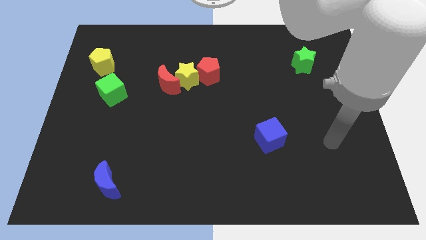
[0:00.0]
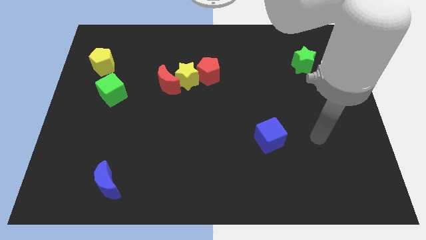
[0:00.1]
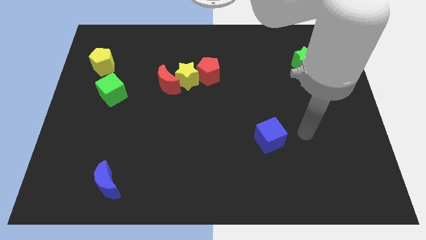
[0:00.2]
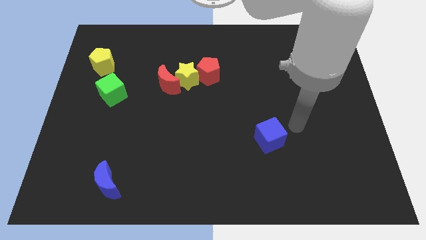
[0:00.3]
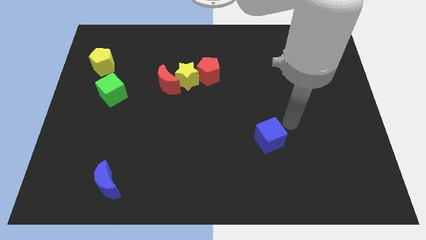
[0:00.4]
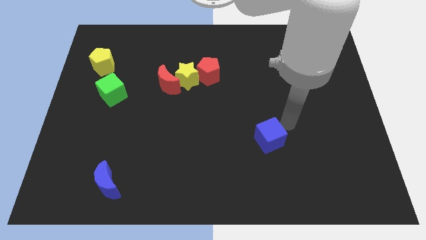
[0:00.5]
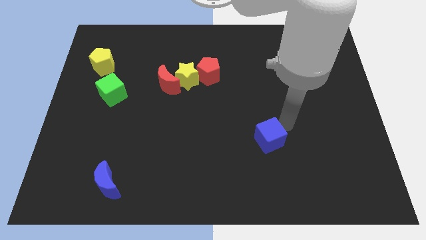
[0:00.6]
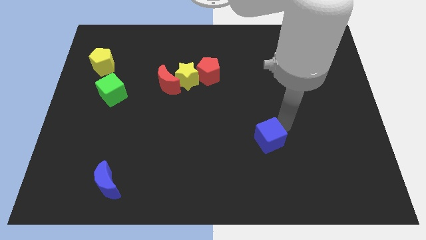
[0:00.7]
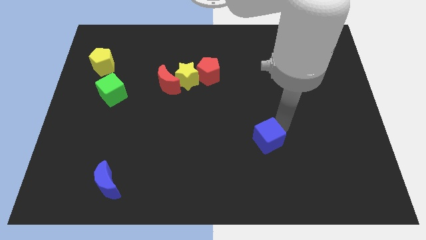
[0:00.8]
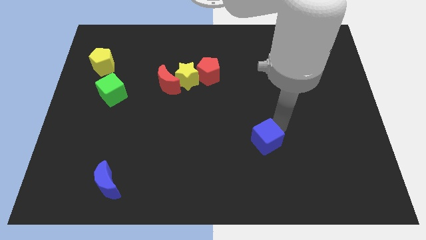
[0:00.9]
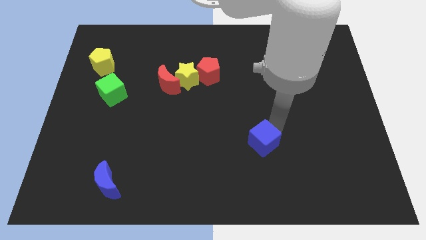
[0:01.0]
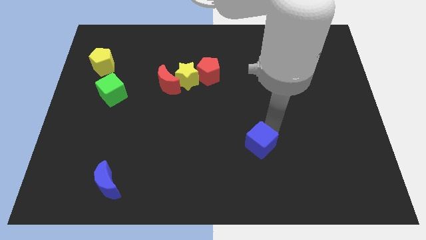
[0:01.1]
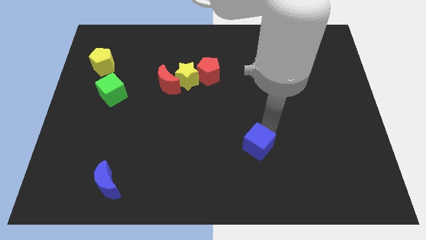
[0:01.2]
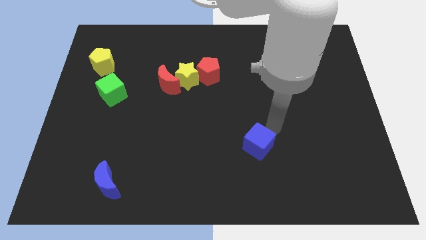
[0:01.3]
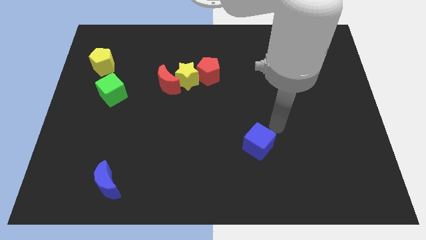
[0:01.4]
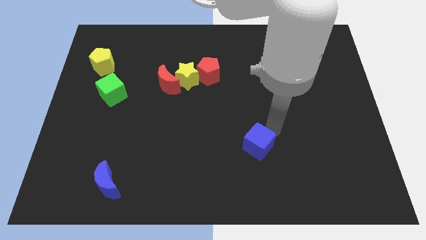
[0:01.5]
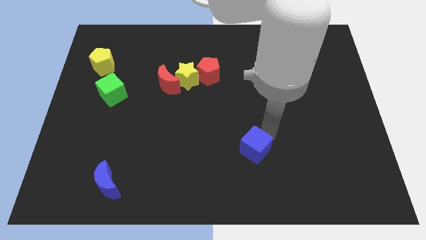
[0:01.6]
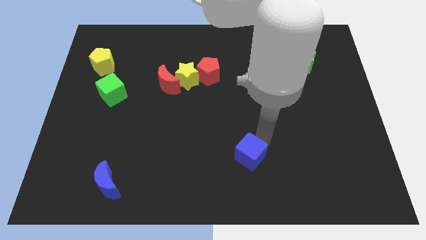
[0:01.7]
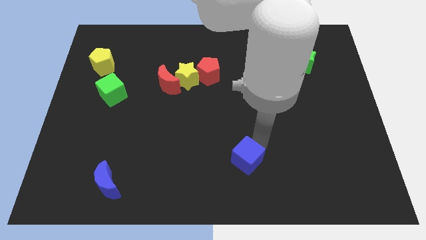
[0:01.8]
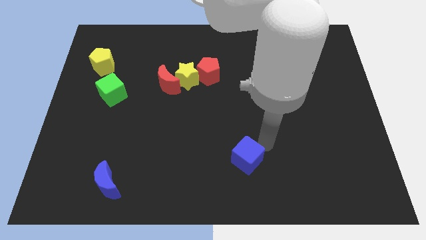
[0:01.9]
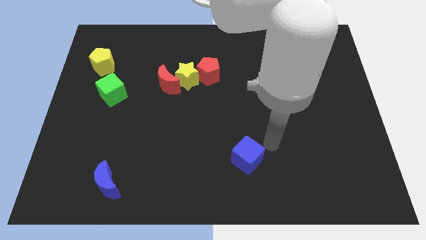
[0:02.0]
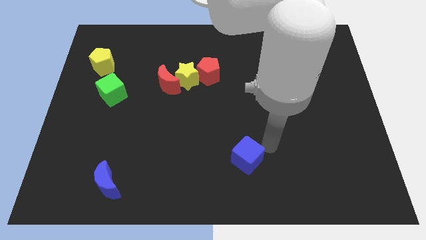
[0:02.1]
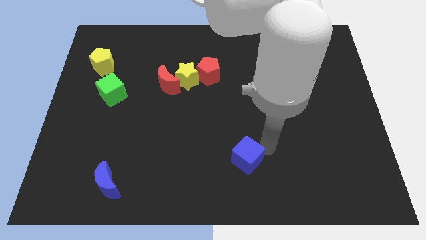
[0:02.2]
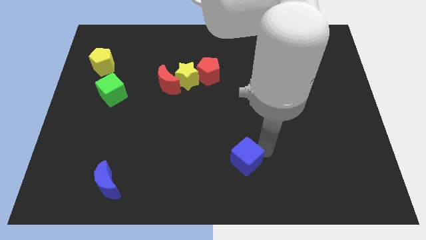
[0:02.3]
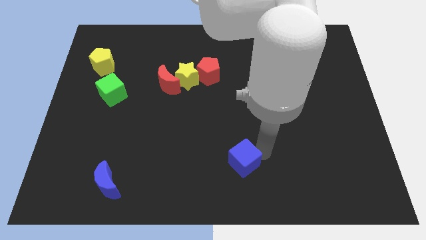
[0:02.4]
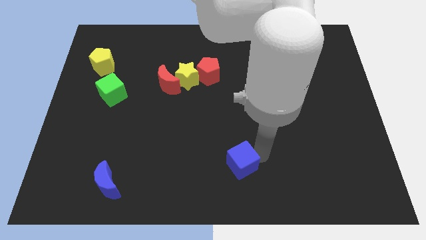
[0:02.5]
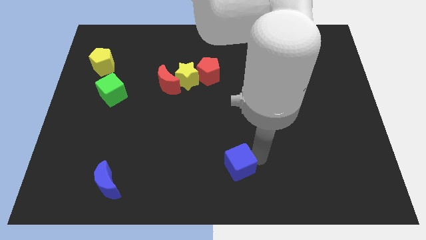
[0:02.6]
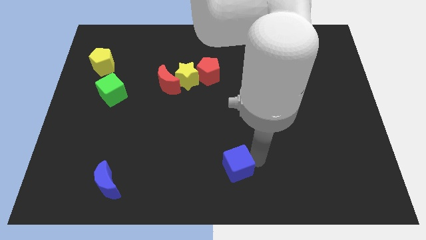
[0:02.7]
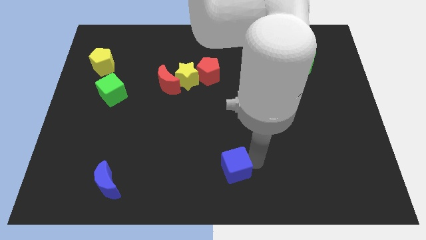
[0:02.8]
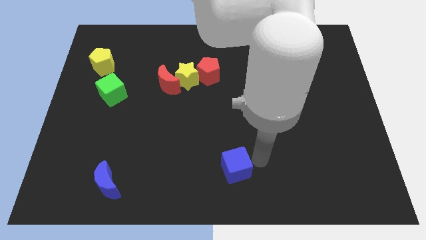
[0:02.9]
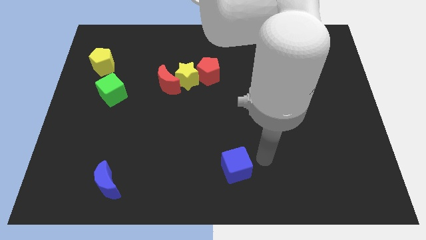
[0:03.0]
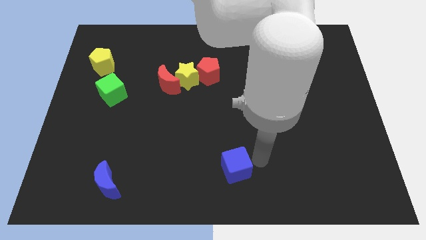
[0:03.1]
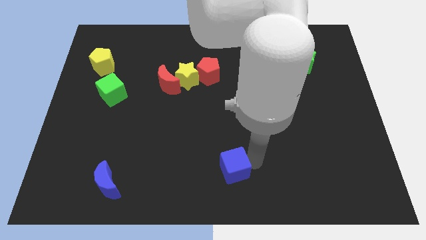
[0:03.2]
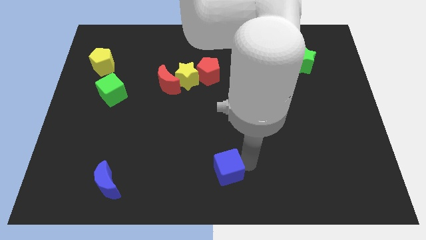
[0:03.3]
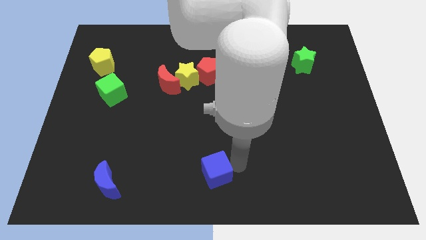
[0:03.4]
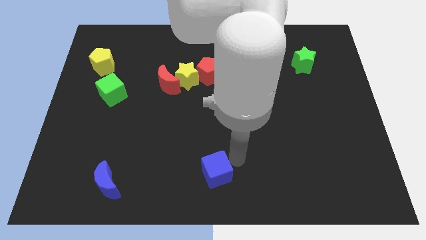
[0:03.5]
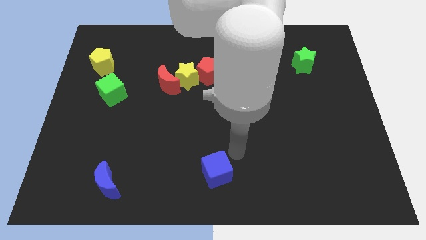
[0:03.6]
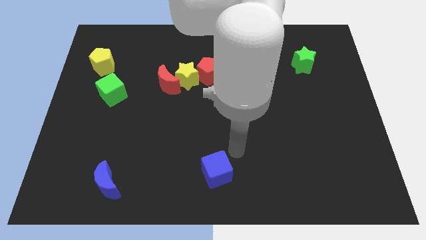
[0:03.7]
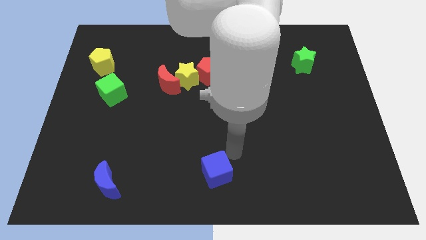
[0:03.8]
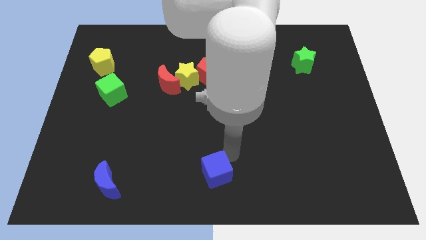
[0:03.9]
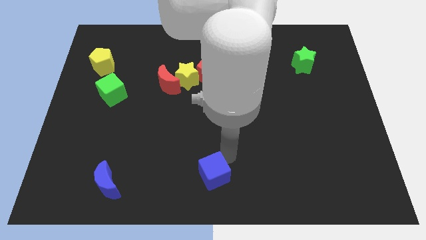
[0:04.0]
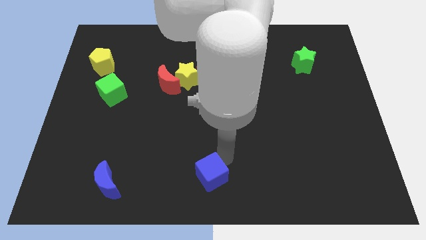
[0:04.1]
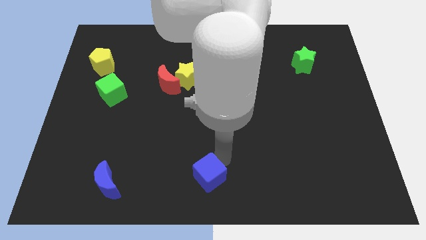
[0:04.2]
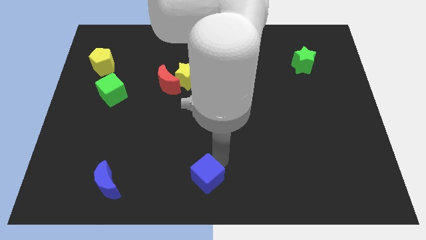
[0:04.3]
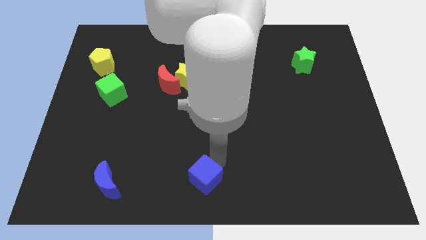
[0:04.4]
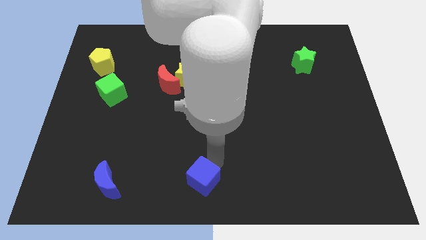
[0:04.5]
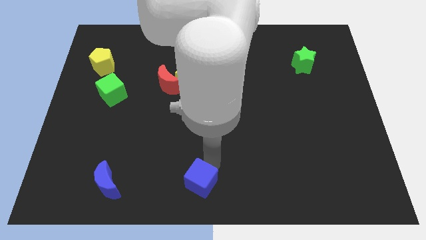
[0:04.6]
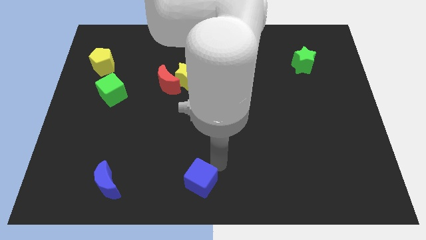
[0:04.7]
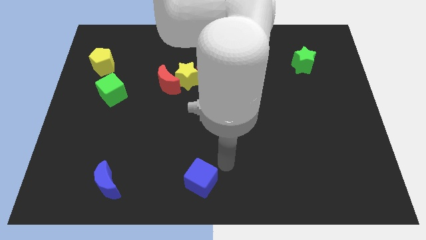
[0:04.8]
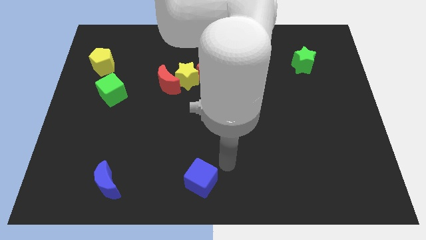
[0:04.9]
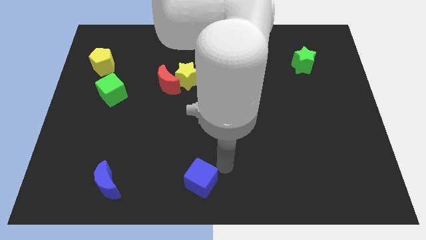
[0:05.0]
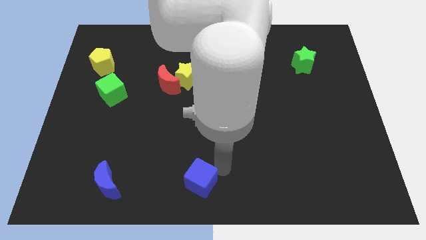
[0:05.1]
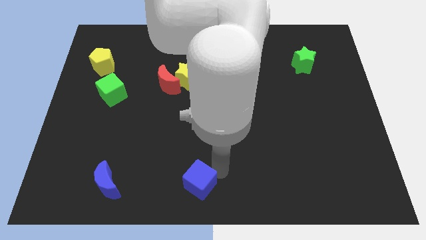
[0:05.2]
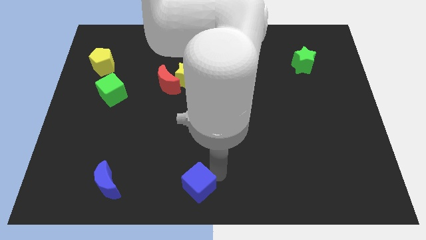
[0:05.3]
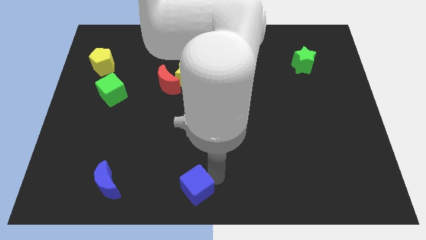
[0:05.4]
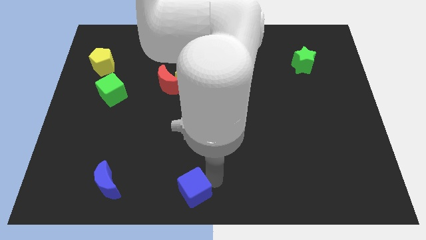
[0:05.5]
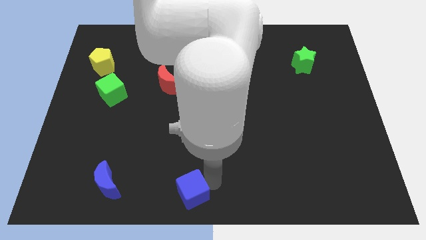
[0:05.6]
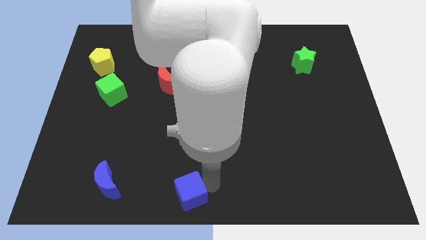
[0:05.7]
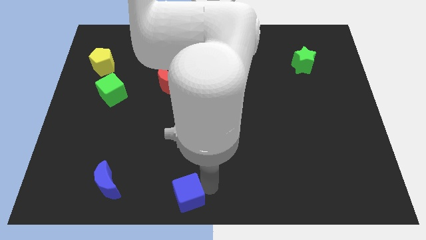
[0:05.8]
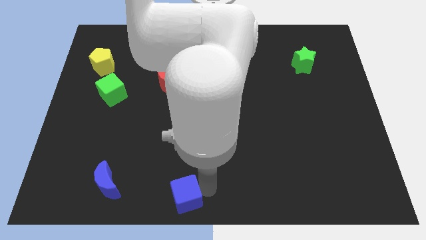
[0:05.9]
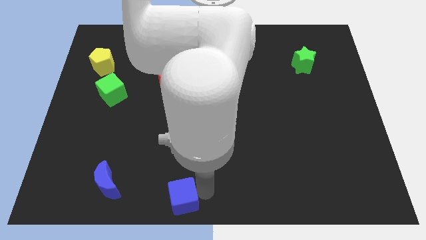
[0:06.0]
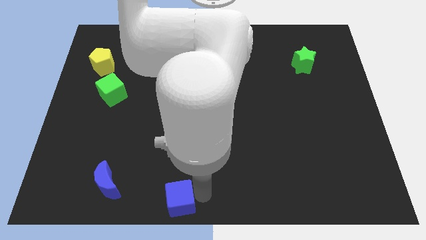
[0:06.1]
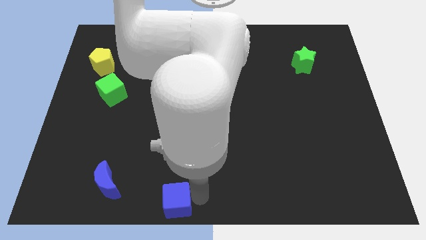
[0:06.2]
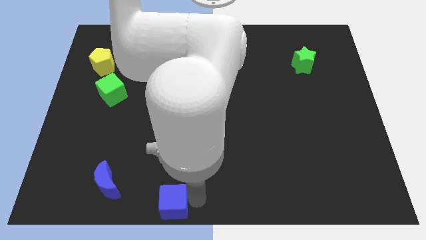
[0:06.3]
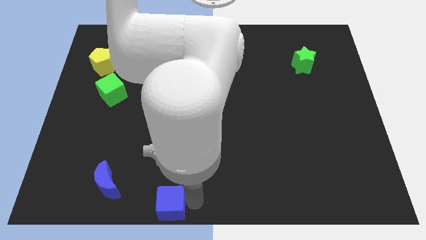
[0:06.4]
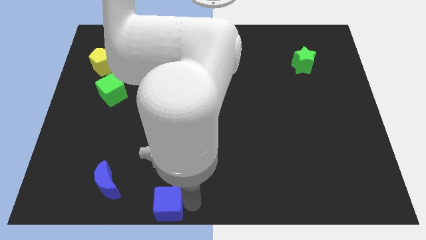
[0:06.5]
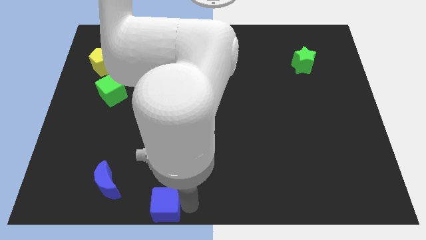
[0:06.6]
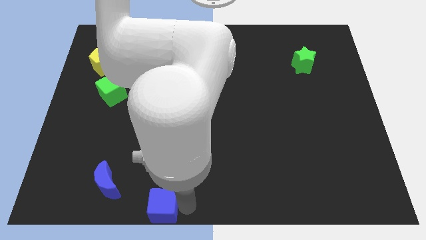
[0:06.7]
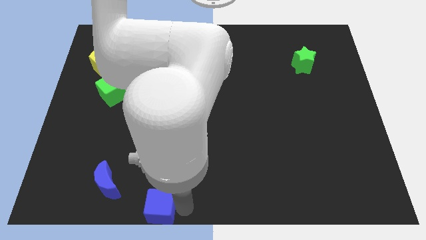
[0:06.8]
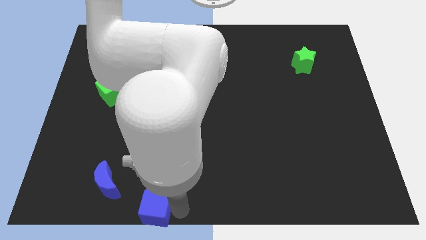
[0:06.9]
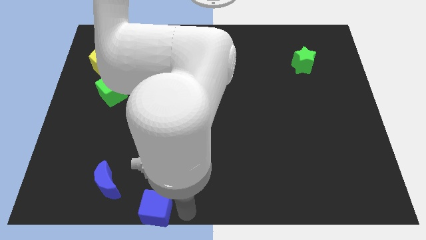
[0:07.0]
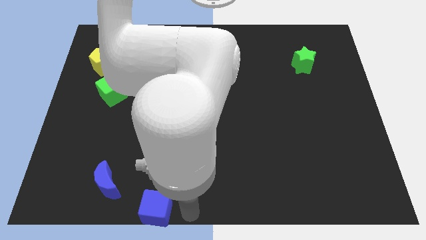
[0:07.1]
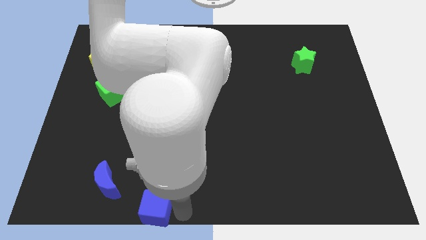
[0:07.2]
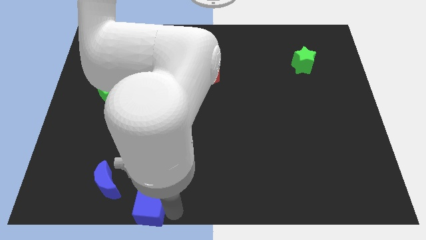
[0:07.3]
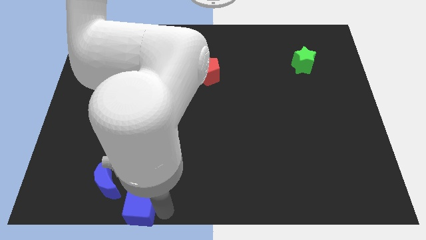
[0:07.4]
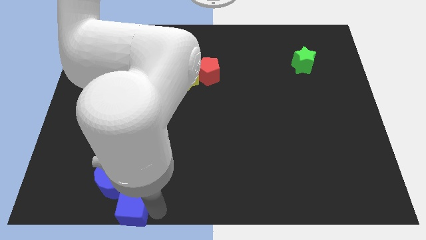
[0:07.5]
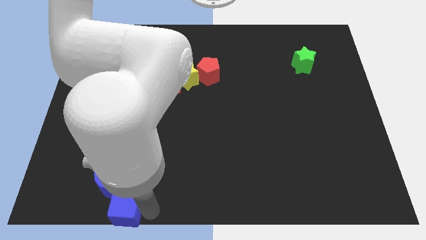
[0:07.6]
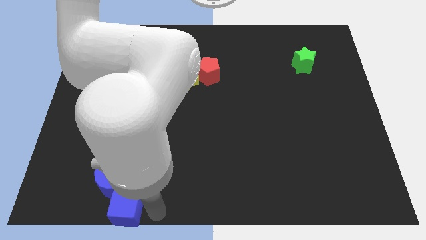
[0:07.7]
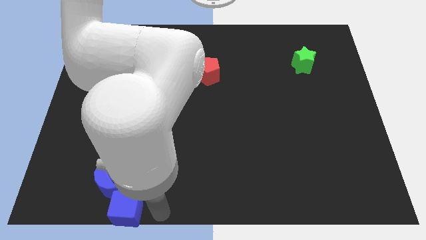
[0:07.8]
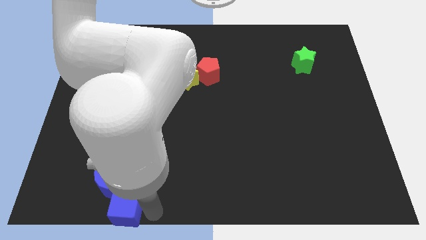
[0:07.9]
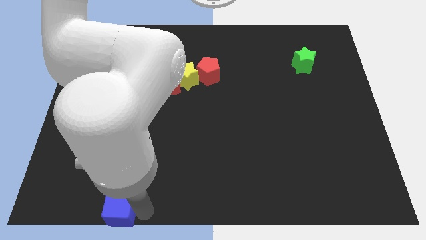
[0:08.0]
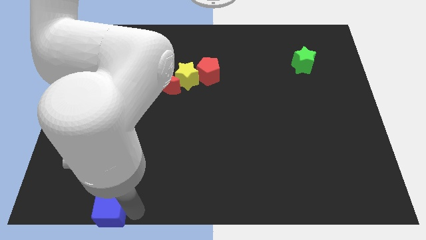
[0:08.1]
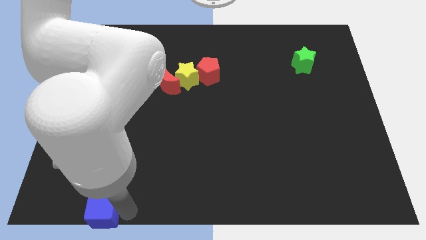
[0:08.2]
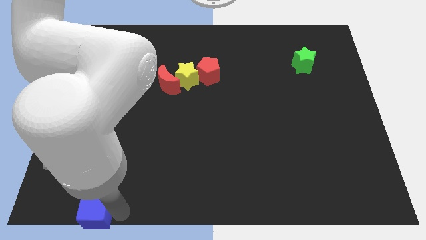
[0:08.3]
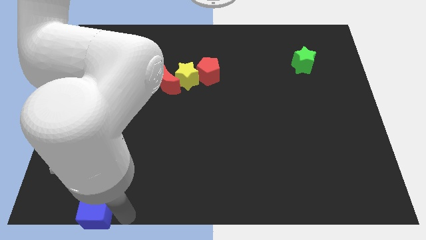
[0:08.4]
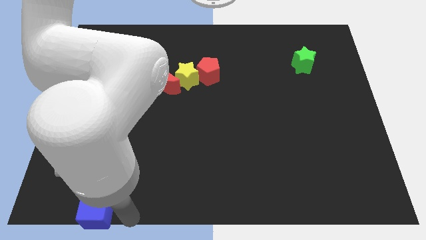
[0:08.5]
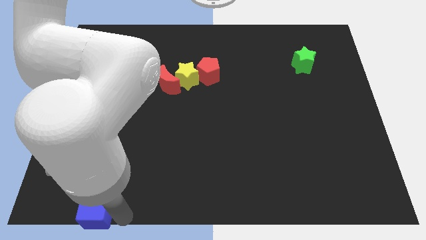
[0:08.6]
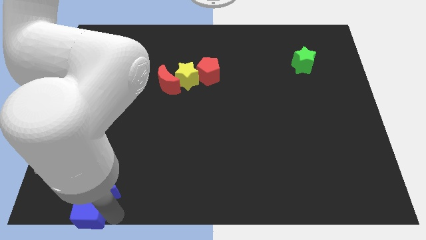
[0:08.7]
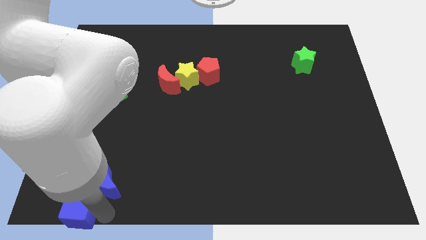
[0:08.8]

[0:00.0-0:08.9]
put the blue cube to the lower left corner
